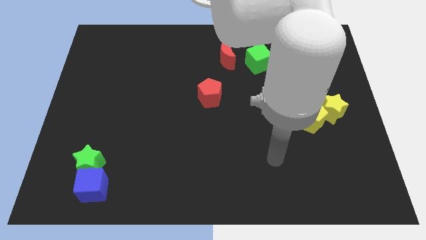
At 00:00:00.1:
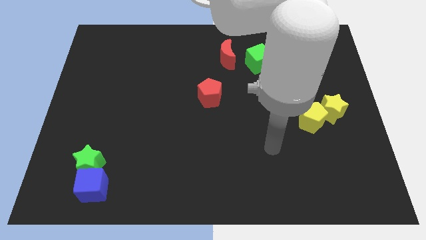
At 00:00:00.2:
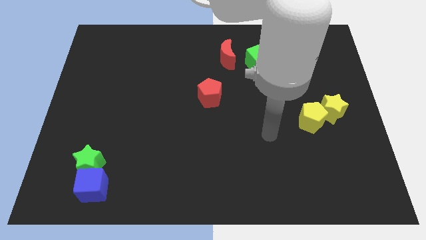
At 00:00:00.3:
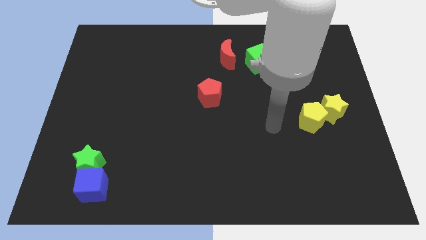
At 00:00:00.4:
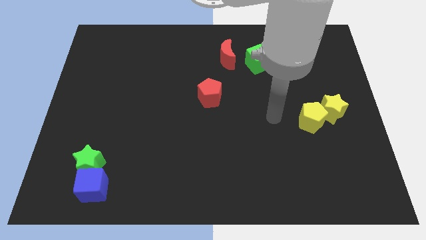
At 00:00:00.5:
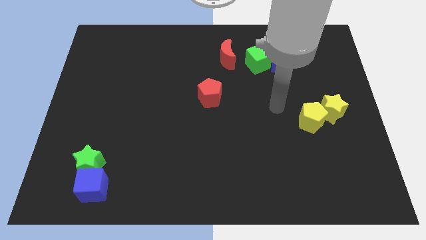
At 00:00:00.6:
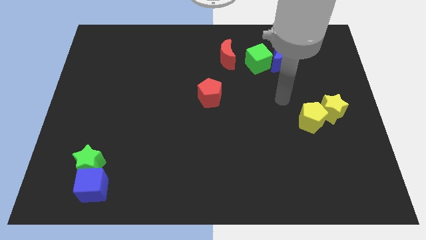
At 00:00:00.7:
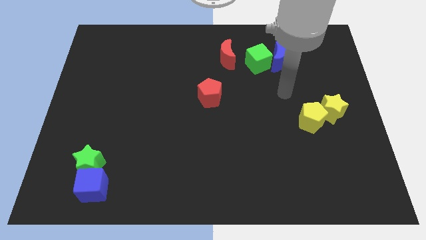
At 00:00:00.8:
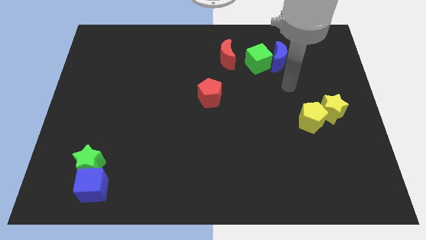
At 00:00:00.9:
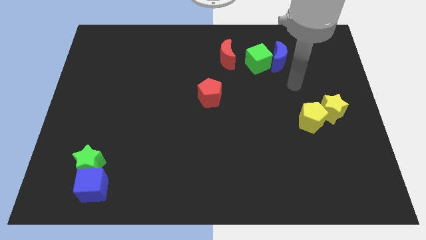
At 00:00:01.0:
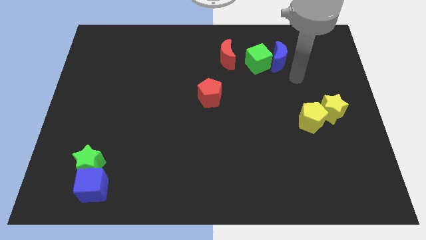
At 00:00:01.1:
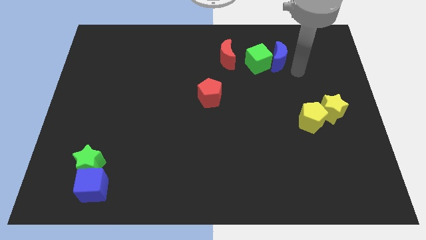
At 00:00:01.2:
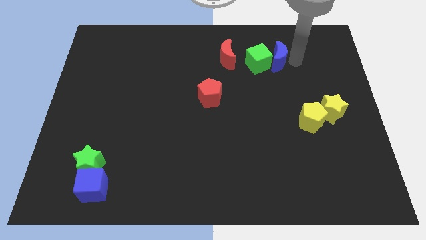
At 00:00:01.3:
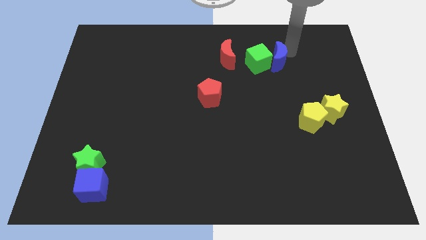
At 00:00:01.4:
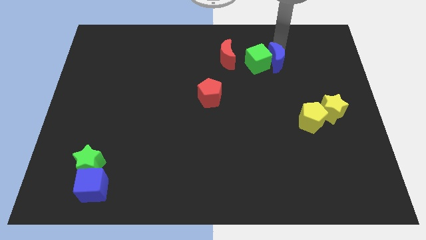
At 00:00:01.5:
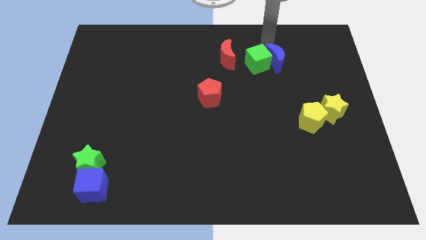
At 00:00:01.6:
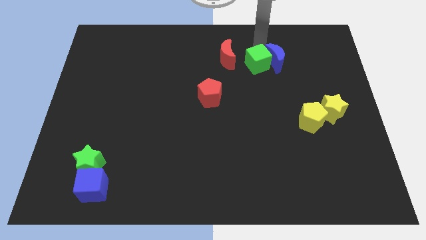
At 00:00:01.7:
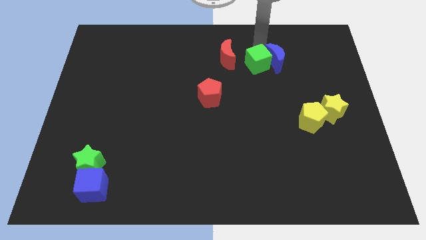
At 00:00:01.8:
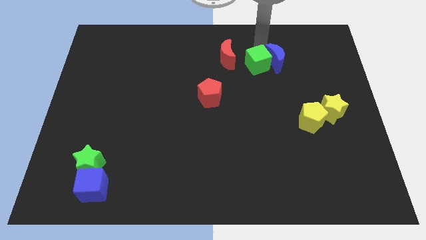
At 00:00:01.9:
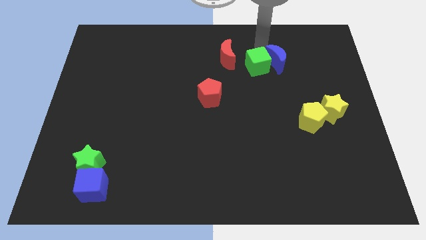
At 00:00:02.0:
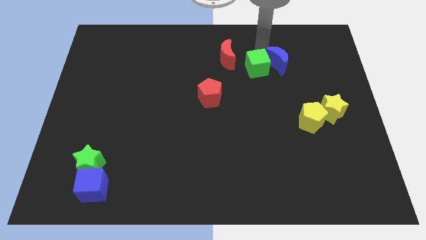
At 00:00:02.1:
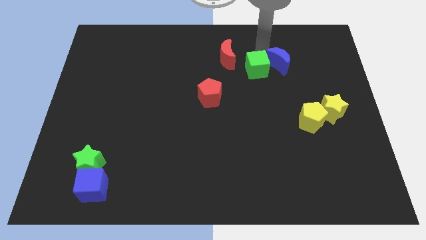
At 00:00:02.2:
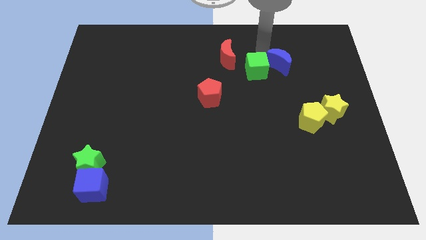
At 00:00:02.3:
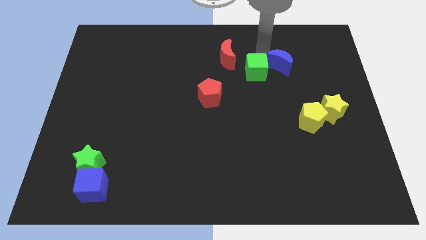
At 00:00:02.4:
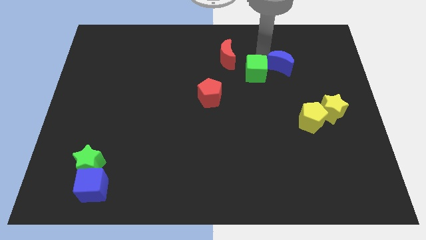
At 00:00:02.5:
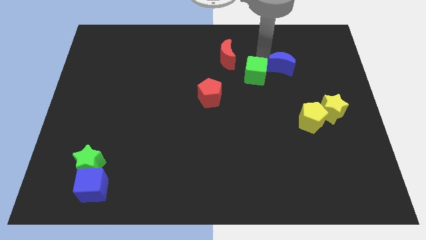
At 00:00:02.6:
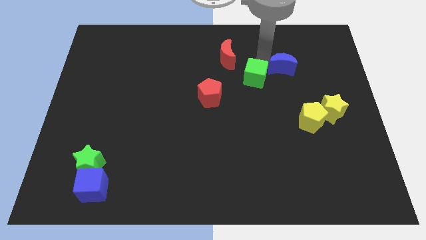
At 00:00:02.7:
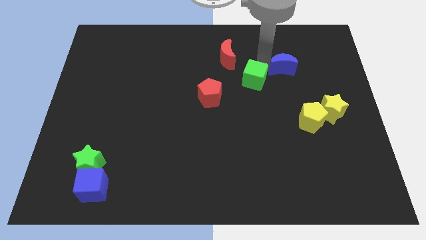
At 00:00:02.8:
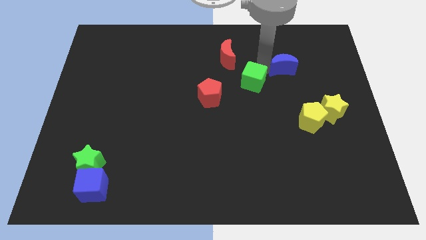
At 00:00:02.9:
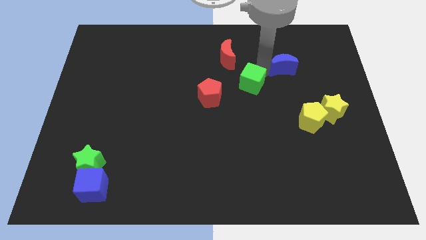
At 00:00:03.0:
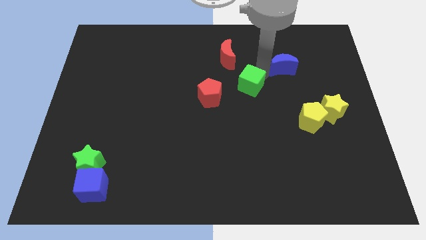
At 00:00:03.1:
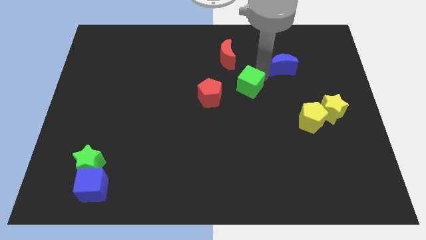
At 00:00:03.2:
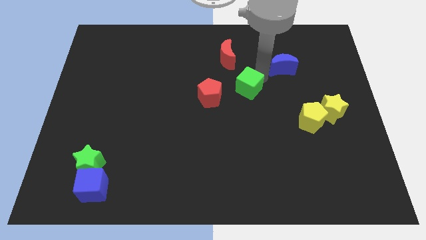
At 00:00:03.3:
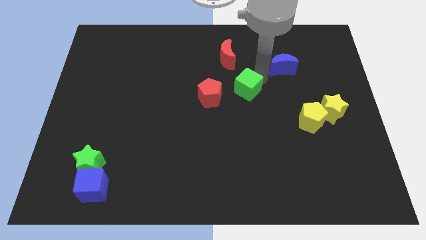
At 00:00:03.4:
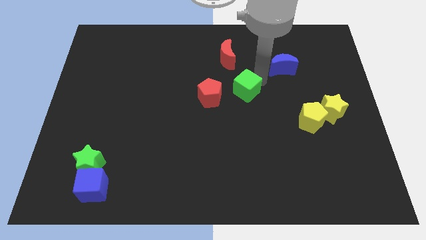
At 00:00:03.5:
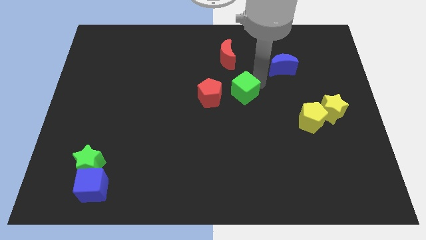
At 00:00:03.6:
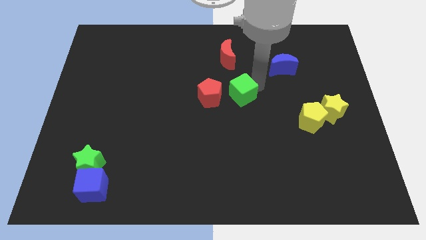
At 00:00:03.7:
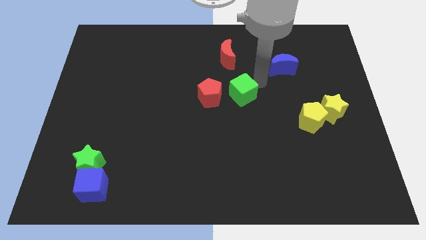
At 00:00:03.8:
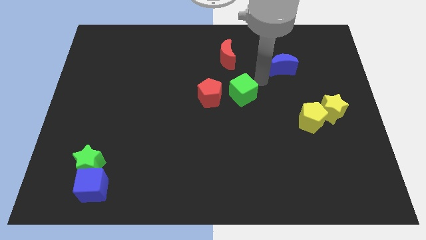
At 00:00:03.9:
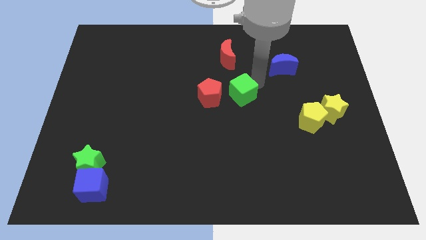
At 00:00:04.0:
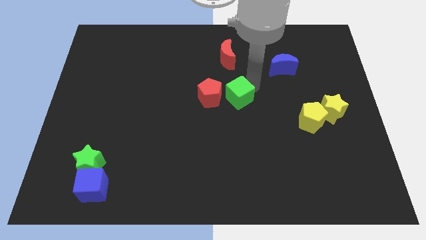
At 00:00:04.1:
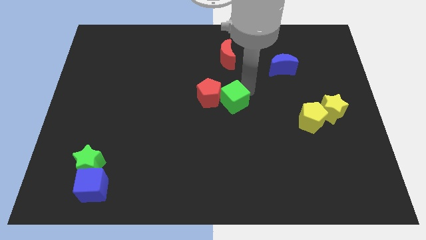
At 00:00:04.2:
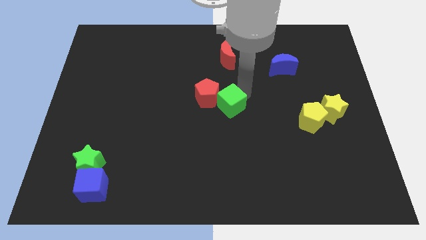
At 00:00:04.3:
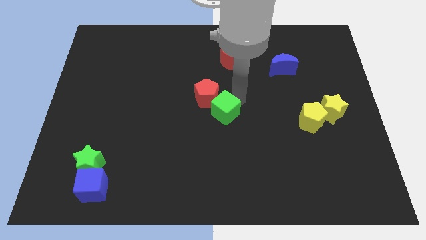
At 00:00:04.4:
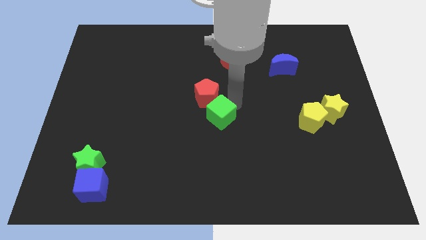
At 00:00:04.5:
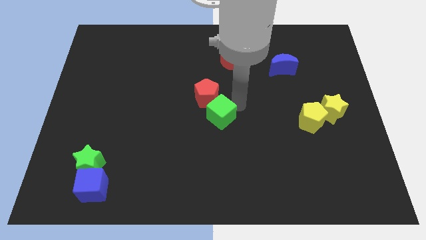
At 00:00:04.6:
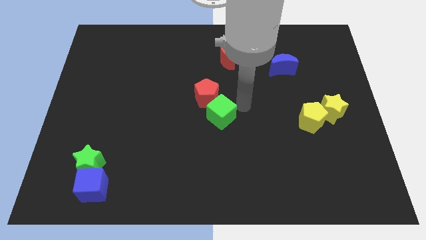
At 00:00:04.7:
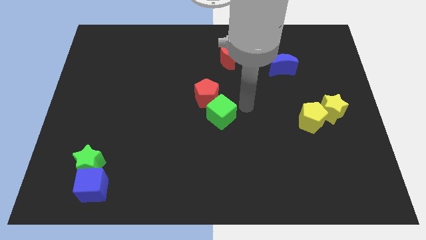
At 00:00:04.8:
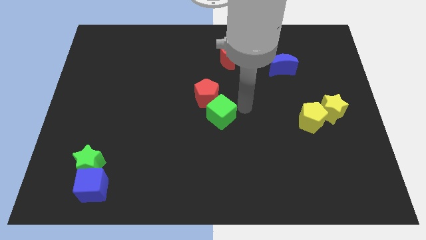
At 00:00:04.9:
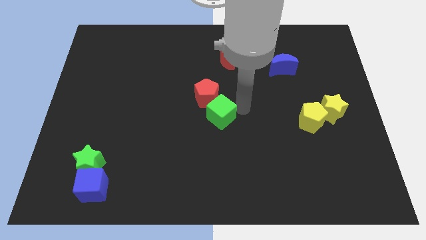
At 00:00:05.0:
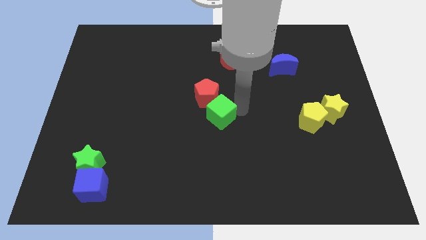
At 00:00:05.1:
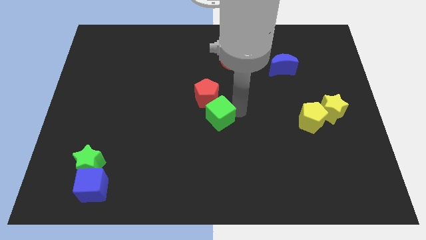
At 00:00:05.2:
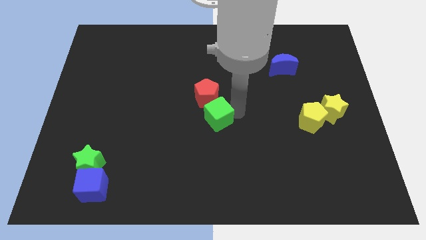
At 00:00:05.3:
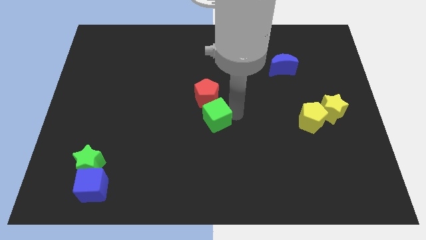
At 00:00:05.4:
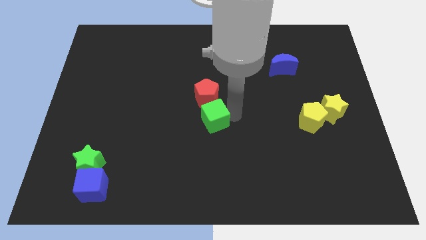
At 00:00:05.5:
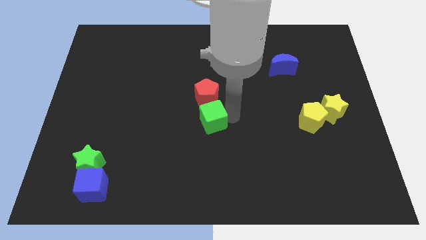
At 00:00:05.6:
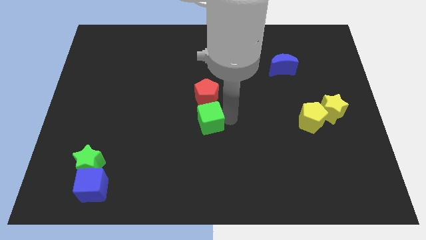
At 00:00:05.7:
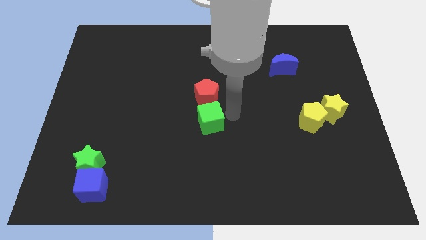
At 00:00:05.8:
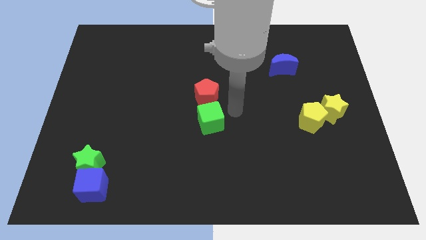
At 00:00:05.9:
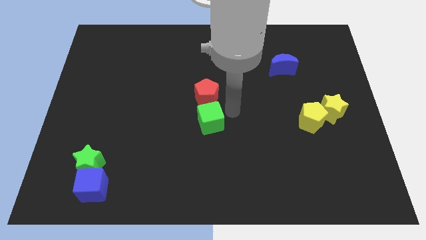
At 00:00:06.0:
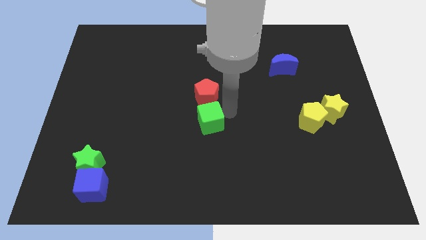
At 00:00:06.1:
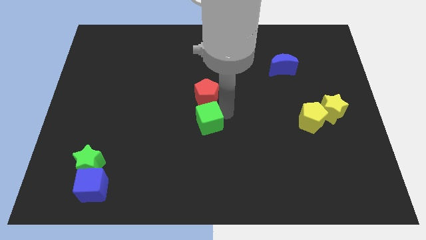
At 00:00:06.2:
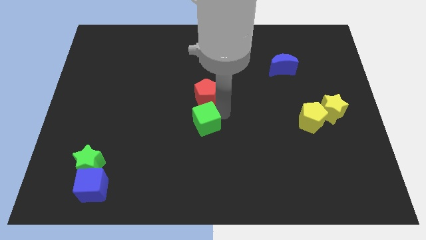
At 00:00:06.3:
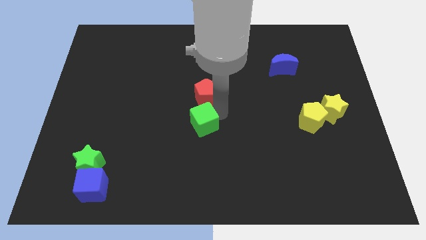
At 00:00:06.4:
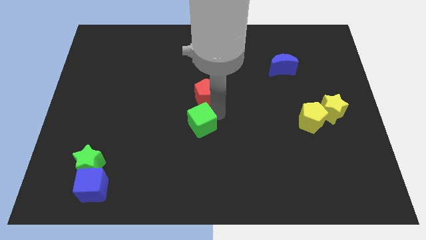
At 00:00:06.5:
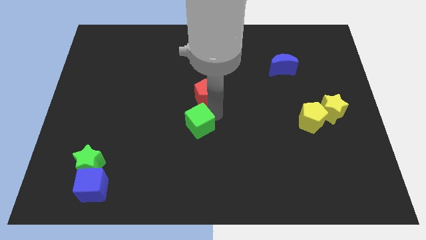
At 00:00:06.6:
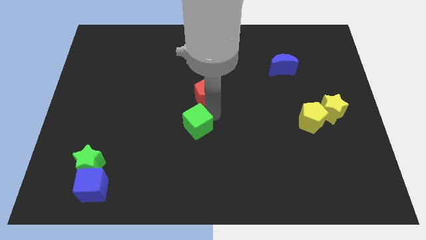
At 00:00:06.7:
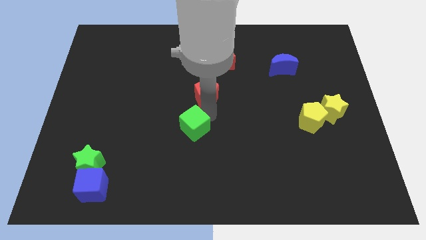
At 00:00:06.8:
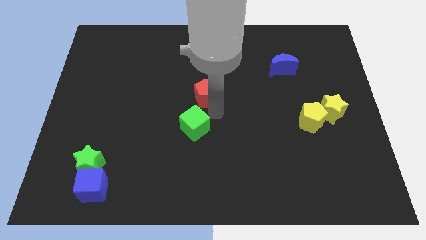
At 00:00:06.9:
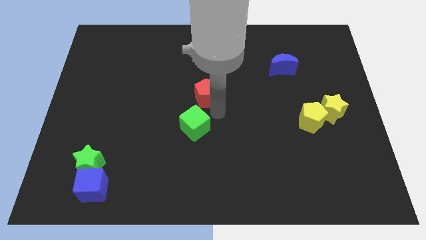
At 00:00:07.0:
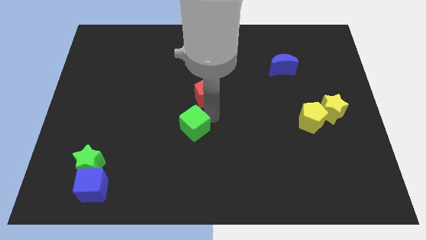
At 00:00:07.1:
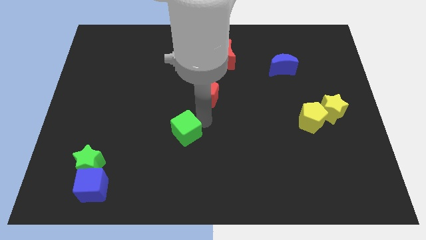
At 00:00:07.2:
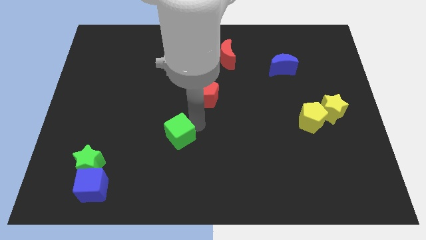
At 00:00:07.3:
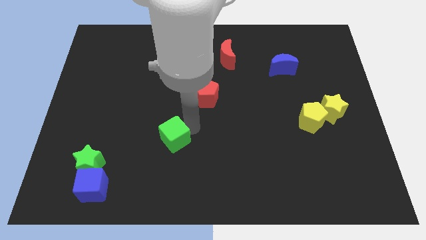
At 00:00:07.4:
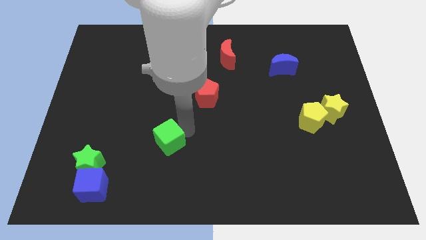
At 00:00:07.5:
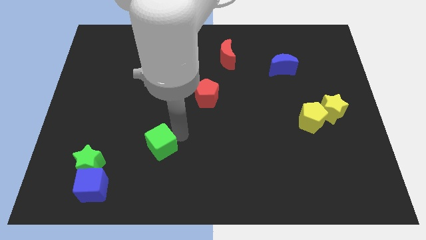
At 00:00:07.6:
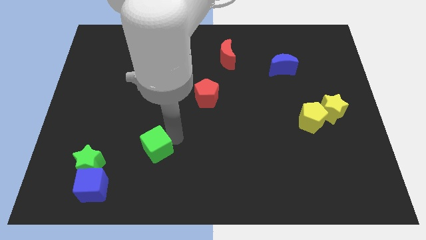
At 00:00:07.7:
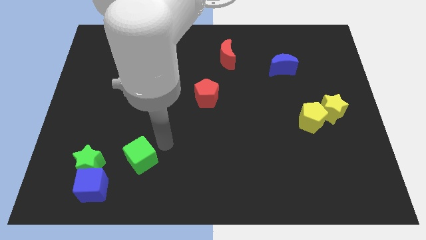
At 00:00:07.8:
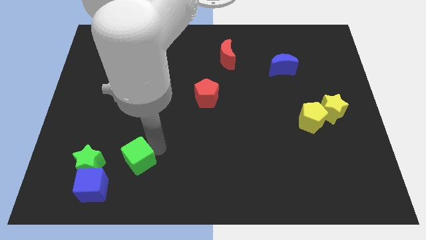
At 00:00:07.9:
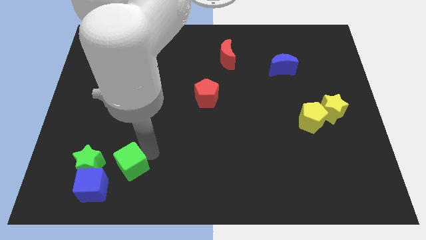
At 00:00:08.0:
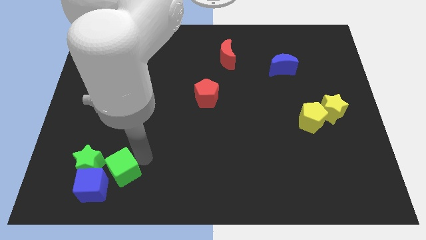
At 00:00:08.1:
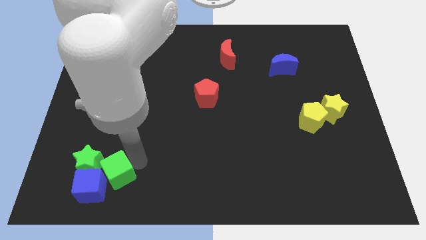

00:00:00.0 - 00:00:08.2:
push the green cube close to the blue cube

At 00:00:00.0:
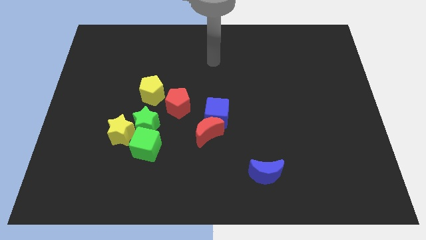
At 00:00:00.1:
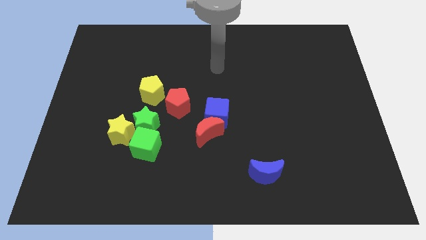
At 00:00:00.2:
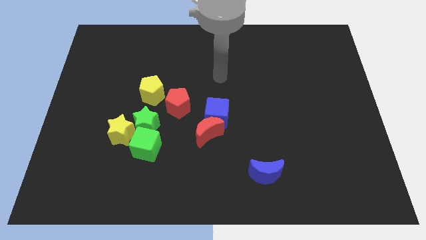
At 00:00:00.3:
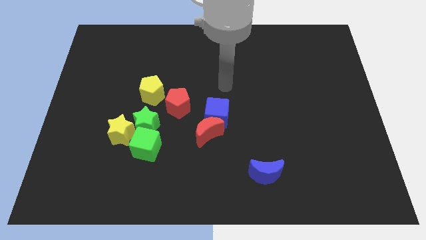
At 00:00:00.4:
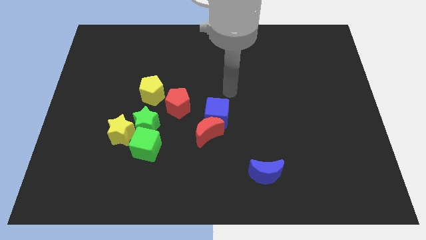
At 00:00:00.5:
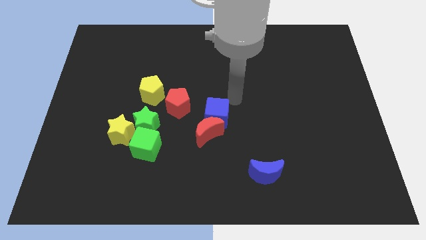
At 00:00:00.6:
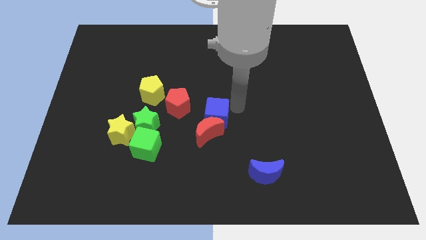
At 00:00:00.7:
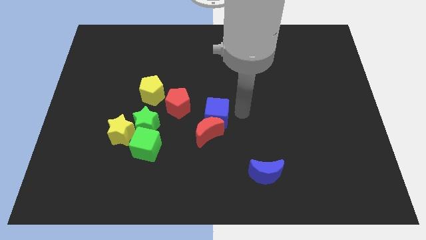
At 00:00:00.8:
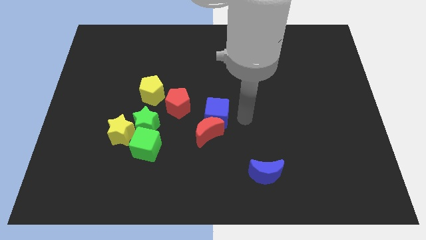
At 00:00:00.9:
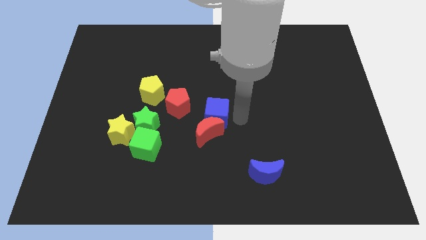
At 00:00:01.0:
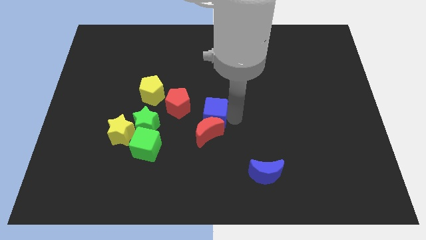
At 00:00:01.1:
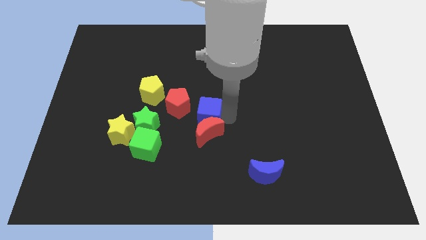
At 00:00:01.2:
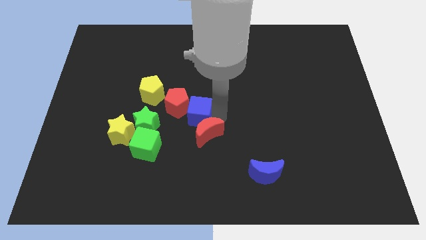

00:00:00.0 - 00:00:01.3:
put the blue cube next to the red pentagon
